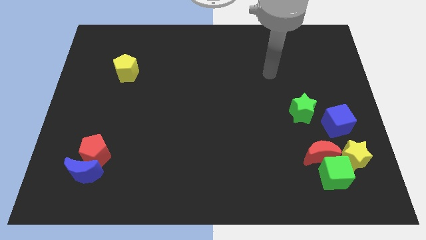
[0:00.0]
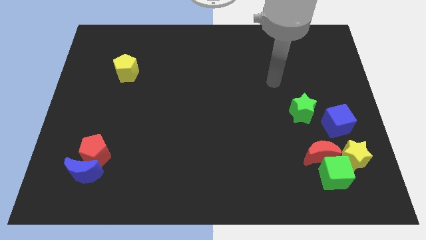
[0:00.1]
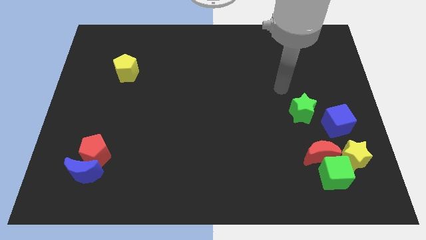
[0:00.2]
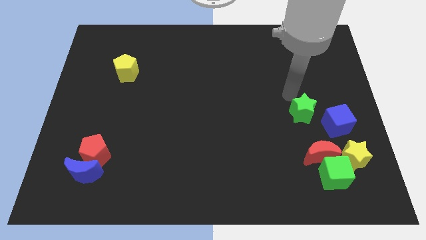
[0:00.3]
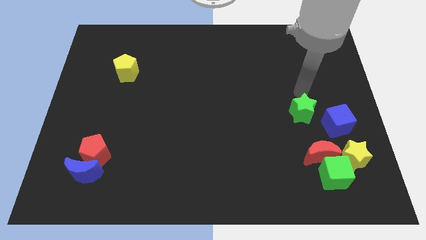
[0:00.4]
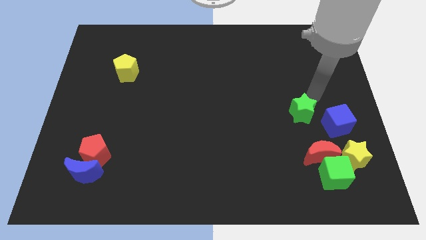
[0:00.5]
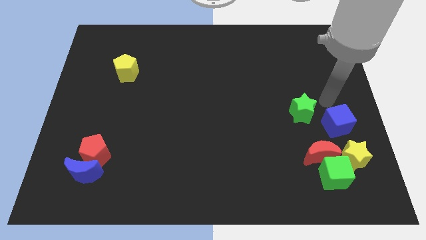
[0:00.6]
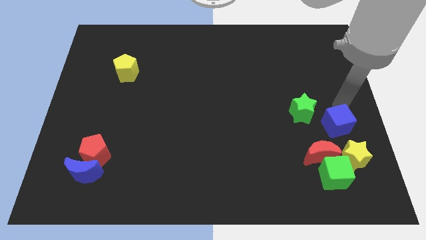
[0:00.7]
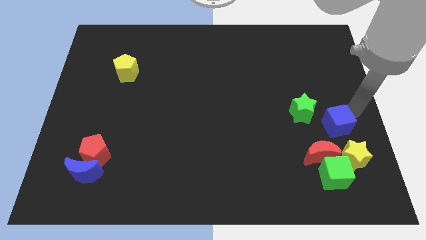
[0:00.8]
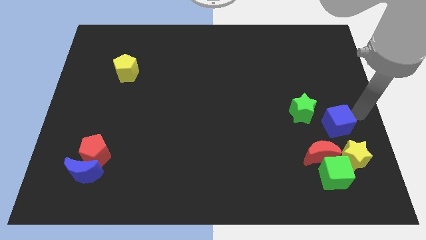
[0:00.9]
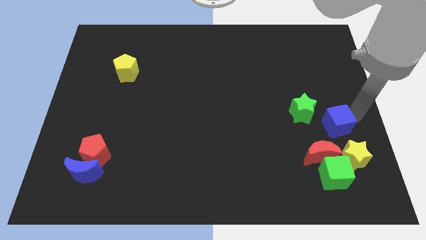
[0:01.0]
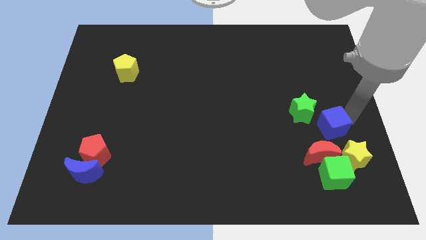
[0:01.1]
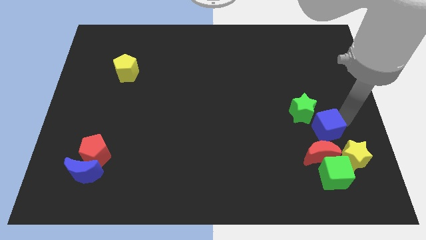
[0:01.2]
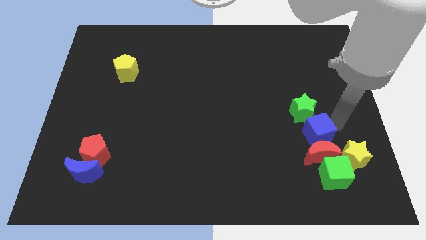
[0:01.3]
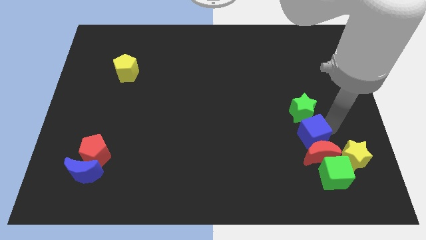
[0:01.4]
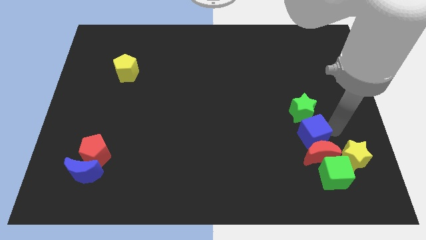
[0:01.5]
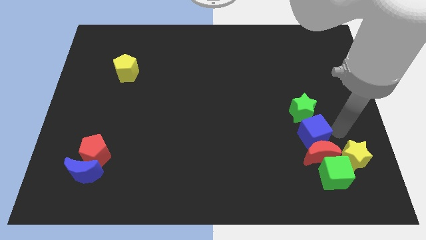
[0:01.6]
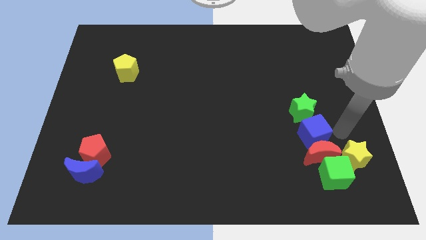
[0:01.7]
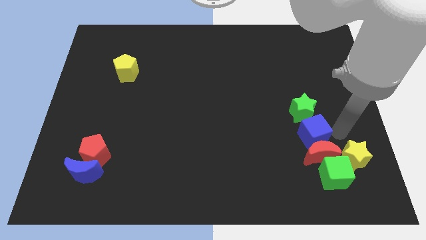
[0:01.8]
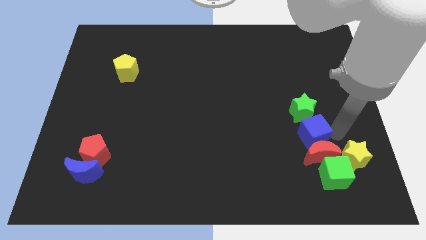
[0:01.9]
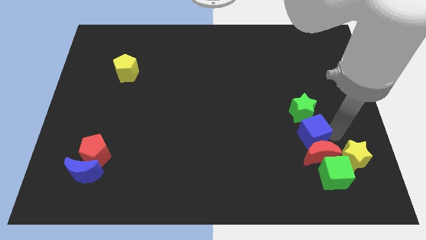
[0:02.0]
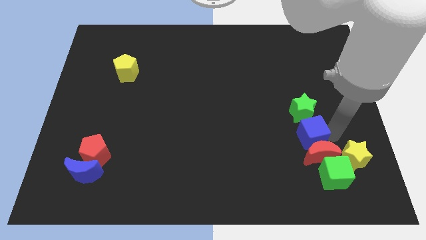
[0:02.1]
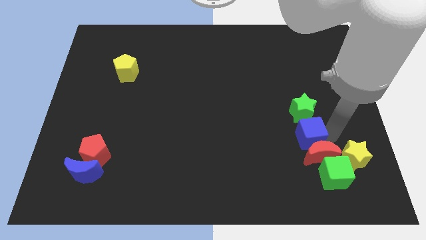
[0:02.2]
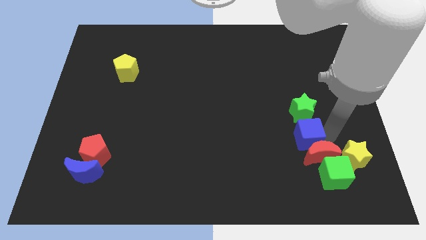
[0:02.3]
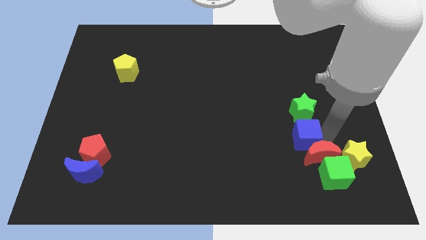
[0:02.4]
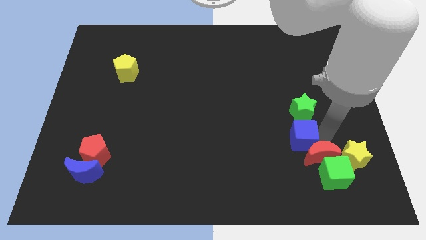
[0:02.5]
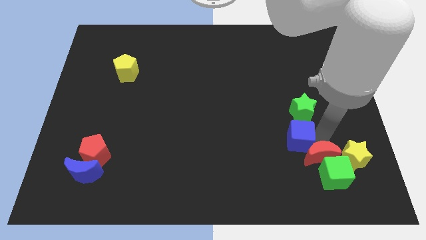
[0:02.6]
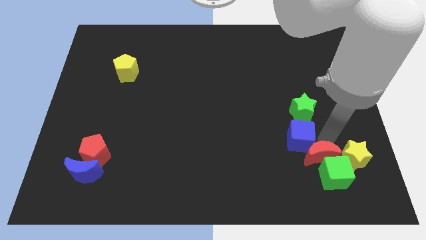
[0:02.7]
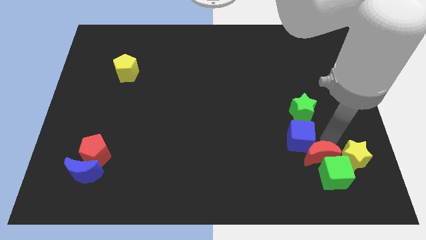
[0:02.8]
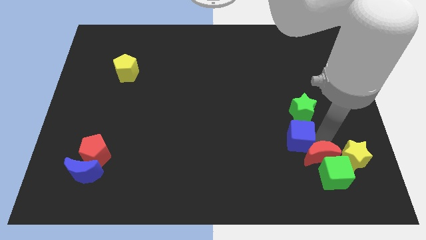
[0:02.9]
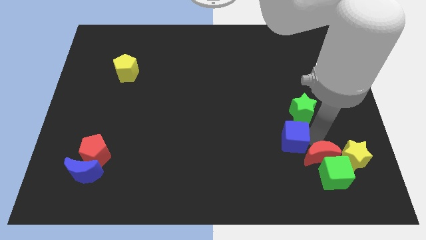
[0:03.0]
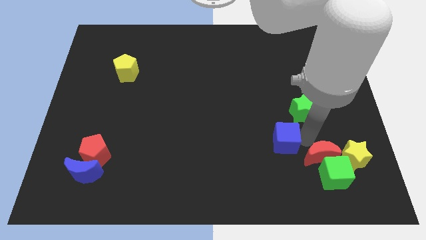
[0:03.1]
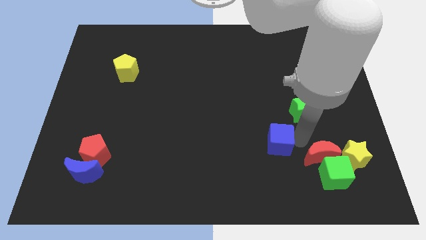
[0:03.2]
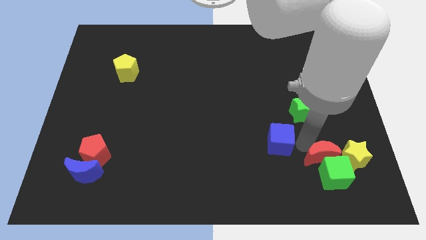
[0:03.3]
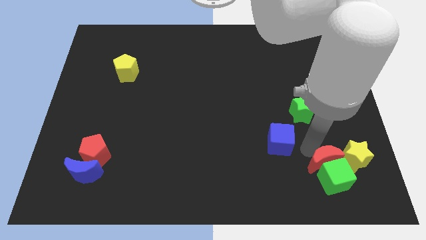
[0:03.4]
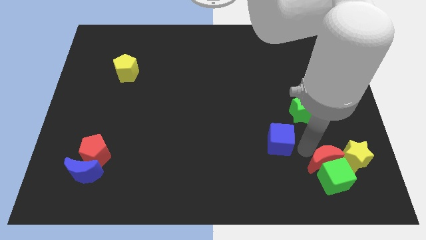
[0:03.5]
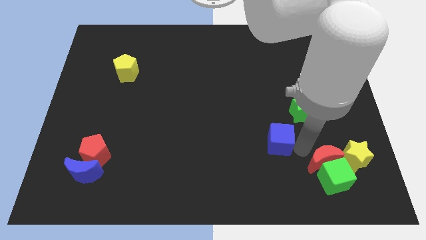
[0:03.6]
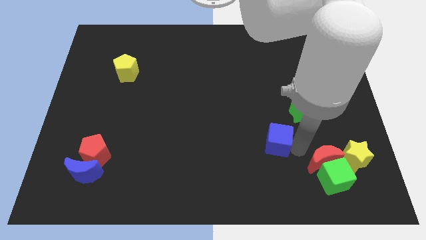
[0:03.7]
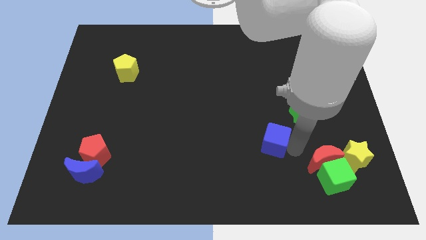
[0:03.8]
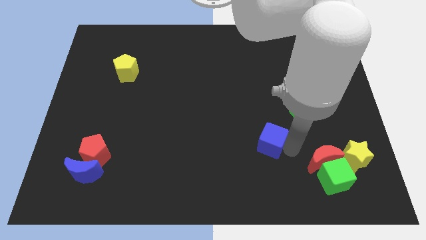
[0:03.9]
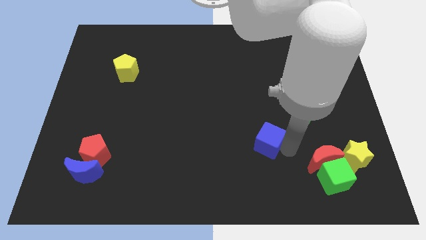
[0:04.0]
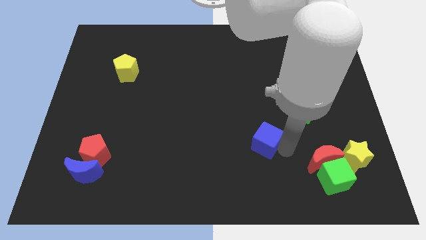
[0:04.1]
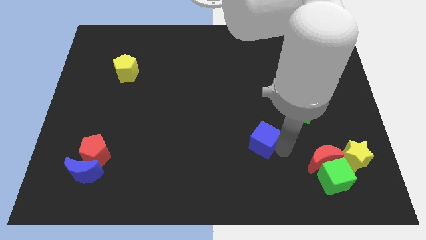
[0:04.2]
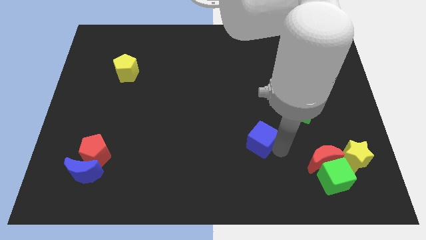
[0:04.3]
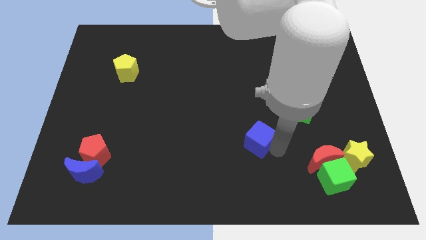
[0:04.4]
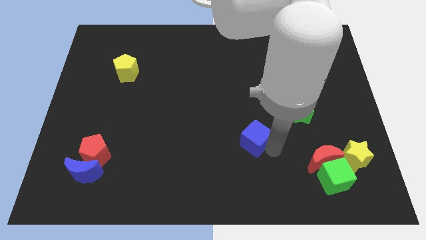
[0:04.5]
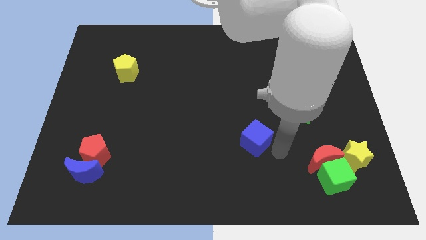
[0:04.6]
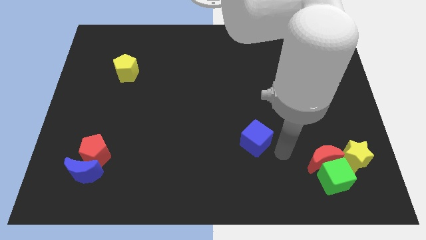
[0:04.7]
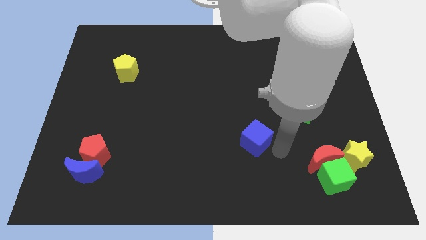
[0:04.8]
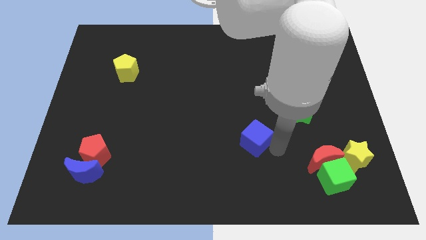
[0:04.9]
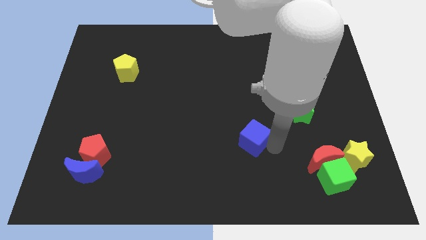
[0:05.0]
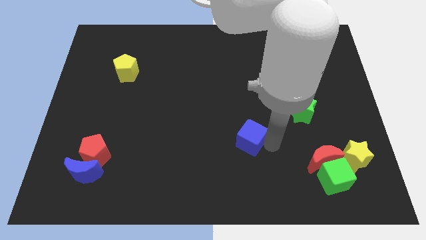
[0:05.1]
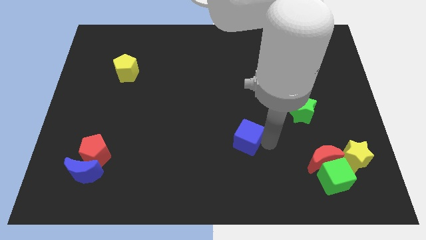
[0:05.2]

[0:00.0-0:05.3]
move the blue cube left

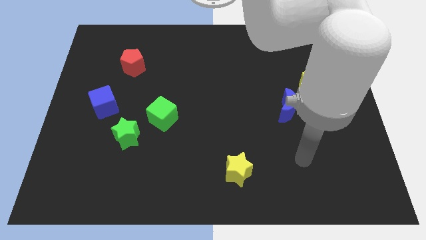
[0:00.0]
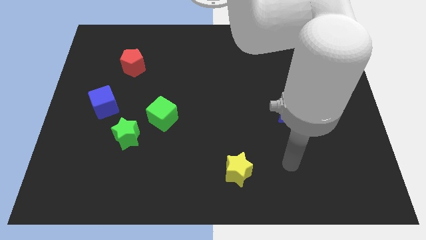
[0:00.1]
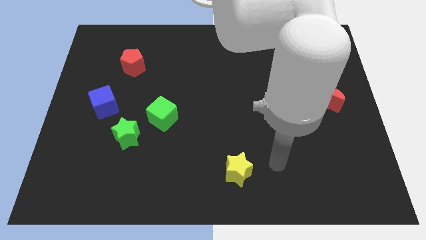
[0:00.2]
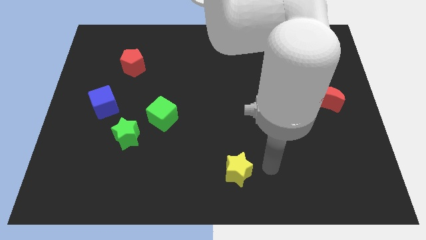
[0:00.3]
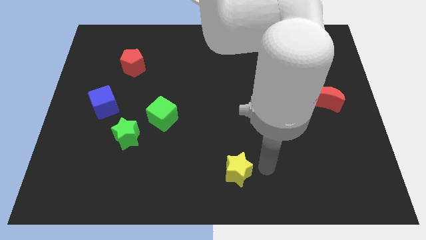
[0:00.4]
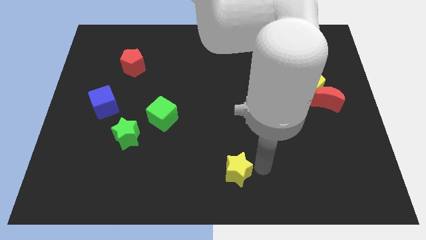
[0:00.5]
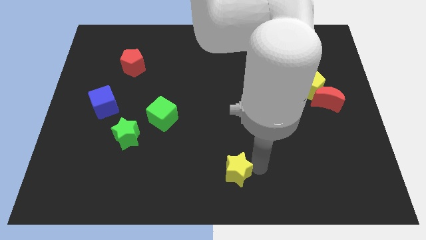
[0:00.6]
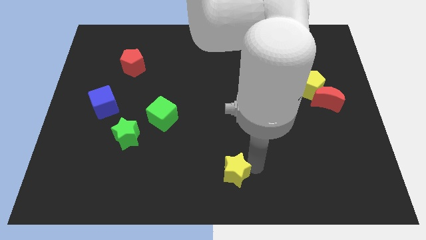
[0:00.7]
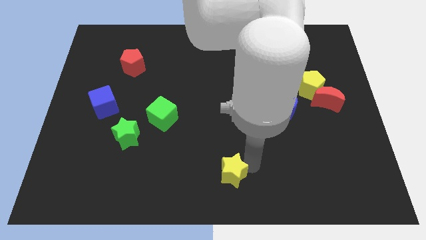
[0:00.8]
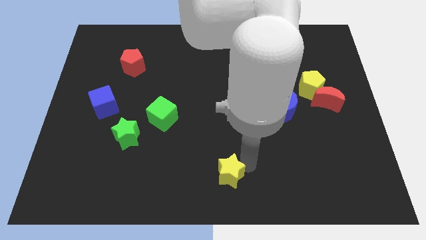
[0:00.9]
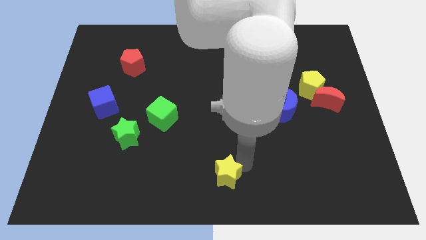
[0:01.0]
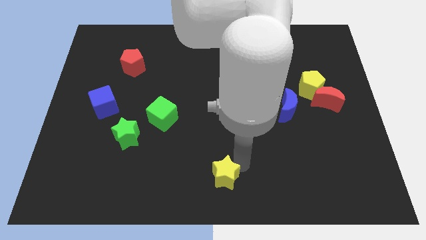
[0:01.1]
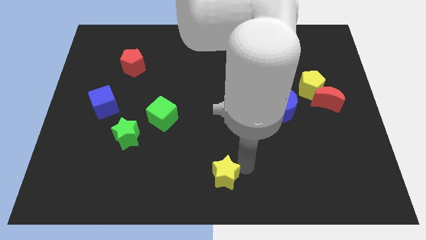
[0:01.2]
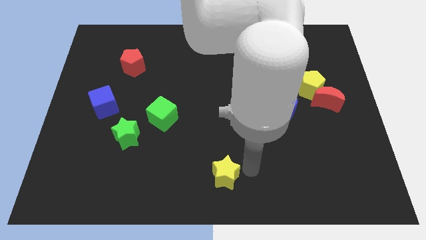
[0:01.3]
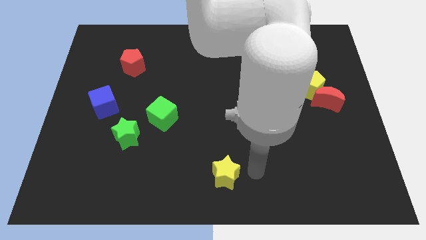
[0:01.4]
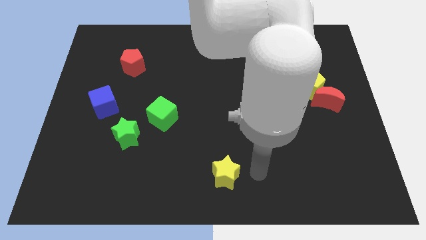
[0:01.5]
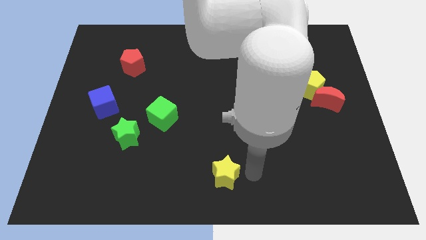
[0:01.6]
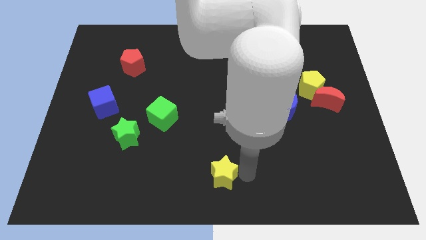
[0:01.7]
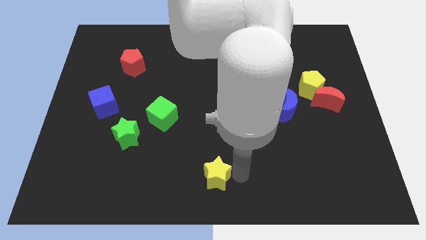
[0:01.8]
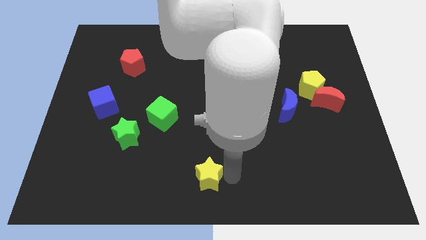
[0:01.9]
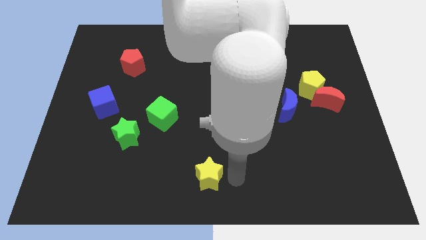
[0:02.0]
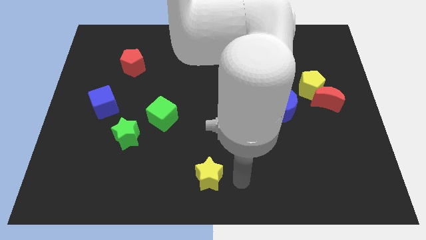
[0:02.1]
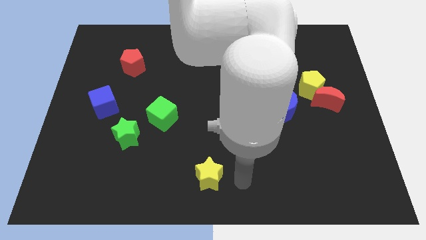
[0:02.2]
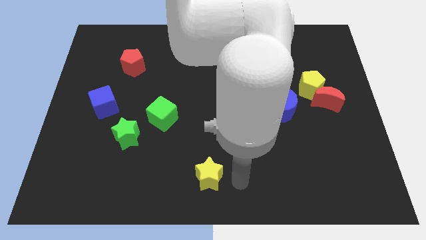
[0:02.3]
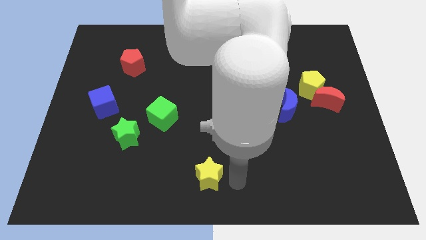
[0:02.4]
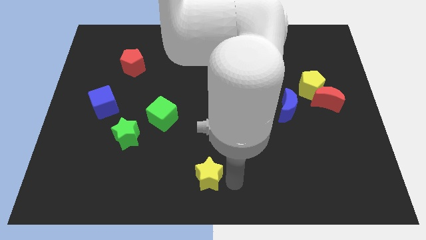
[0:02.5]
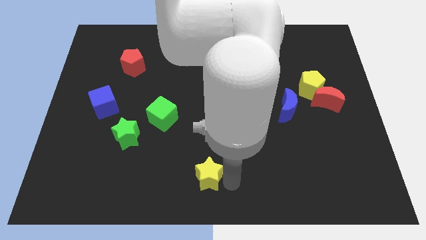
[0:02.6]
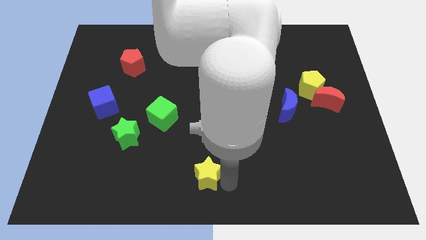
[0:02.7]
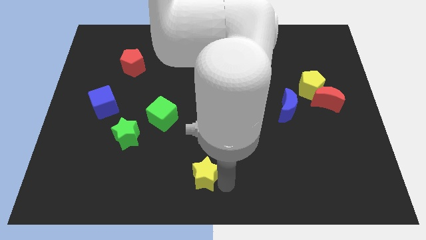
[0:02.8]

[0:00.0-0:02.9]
move the yellow star a little to the left
